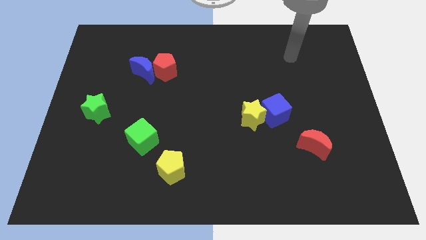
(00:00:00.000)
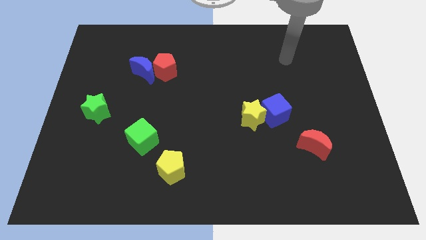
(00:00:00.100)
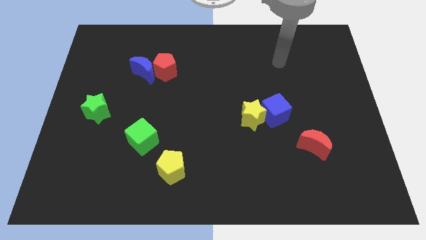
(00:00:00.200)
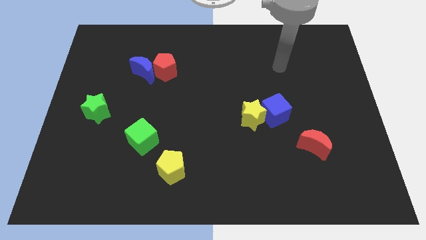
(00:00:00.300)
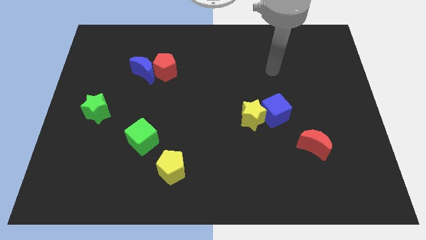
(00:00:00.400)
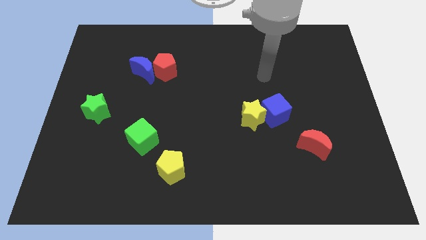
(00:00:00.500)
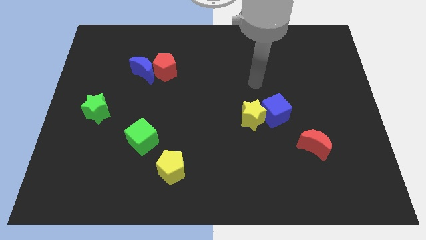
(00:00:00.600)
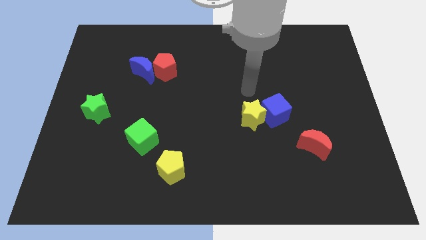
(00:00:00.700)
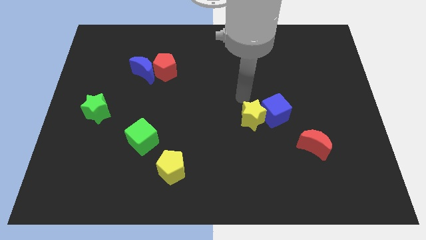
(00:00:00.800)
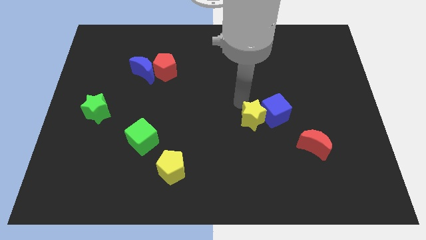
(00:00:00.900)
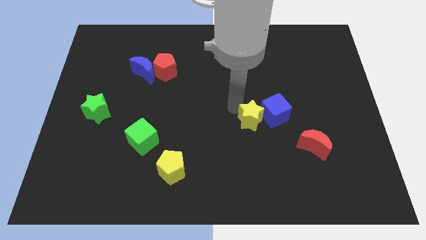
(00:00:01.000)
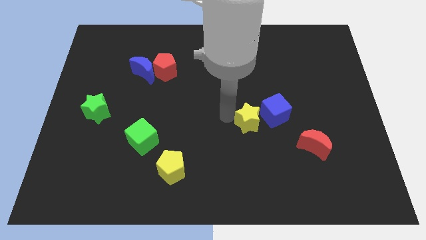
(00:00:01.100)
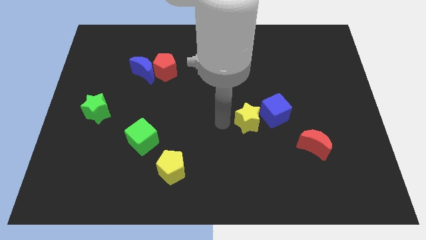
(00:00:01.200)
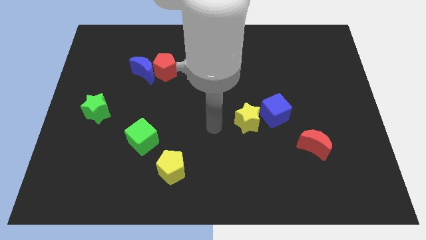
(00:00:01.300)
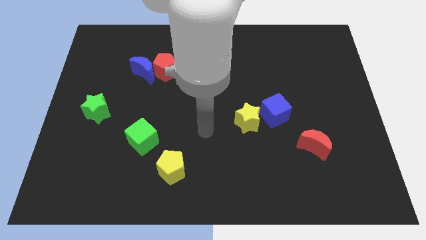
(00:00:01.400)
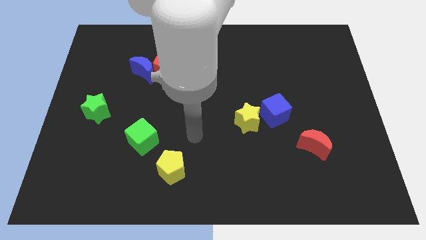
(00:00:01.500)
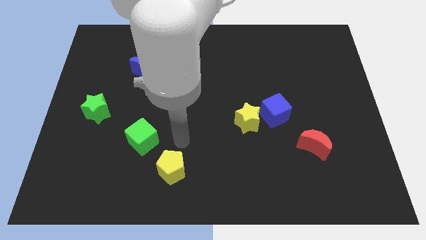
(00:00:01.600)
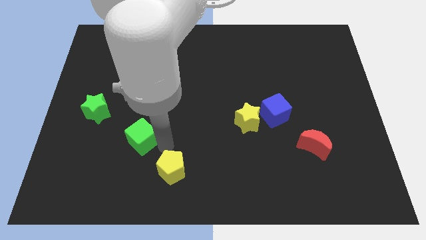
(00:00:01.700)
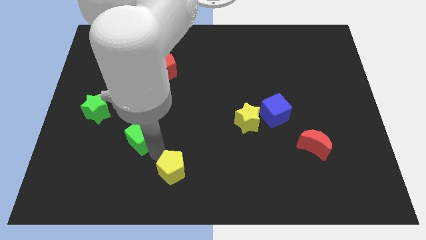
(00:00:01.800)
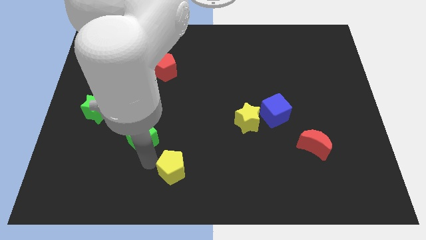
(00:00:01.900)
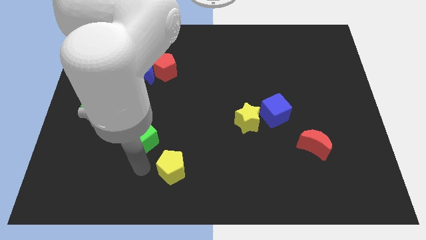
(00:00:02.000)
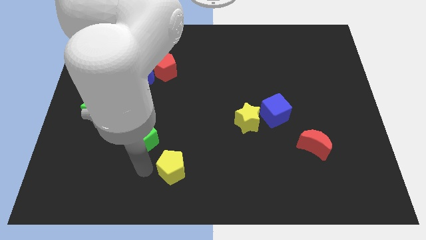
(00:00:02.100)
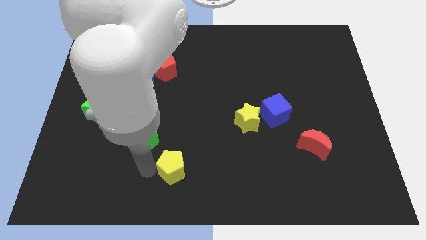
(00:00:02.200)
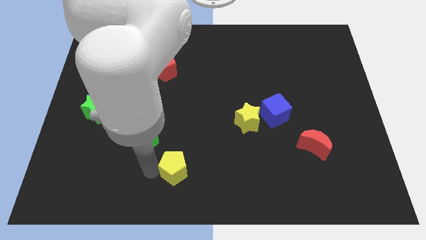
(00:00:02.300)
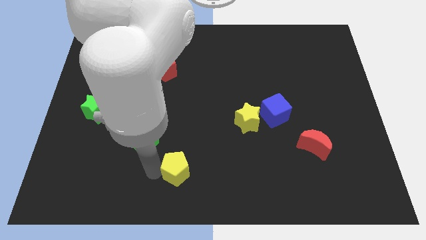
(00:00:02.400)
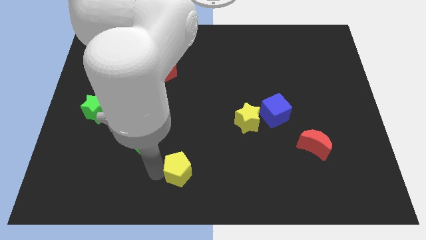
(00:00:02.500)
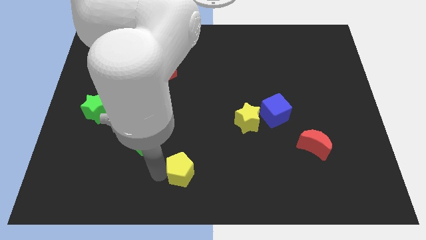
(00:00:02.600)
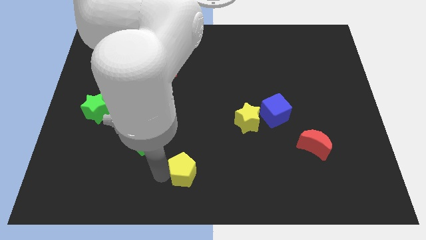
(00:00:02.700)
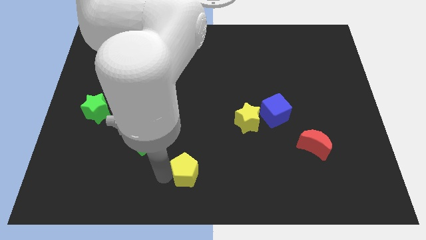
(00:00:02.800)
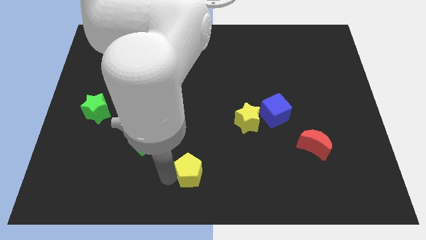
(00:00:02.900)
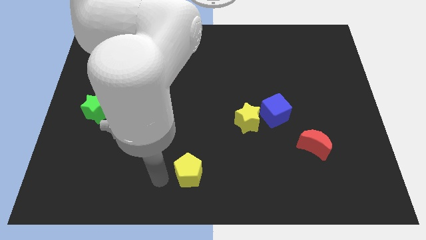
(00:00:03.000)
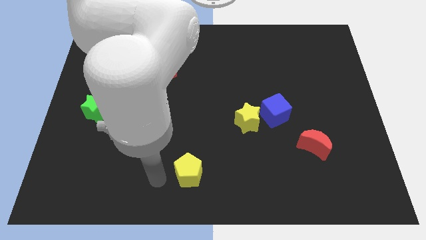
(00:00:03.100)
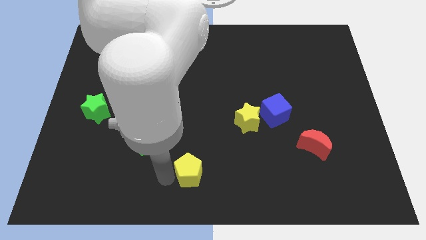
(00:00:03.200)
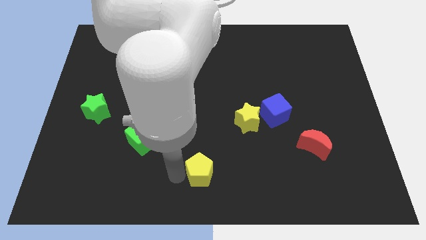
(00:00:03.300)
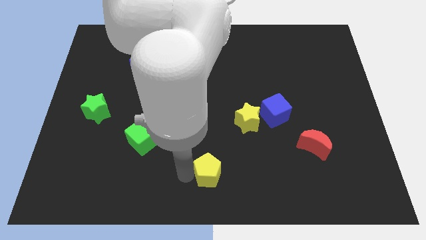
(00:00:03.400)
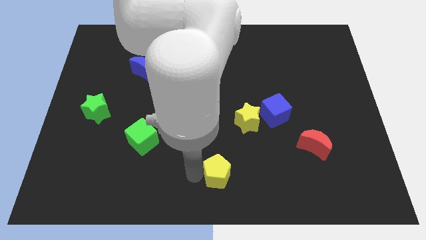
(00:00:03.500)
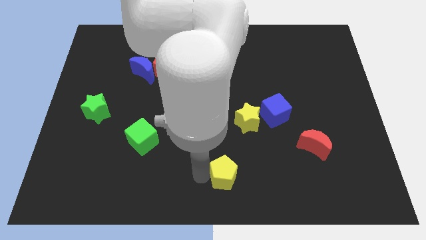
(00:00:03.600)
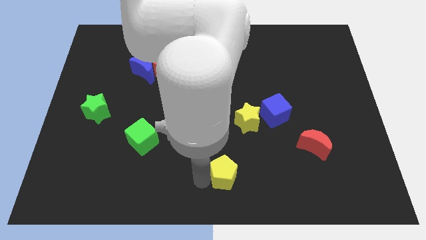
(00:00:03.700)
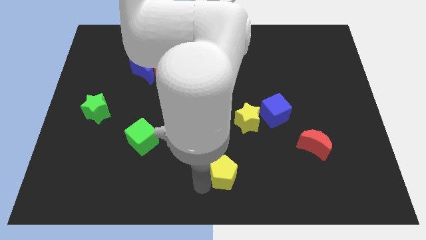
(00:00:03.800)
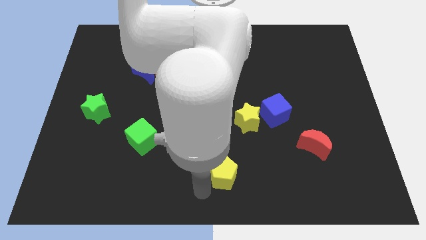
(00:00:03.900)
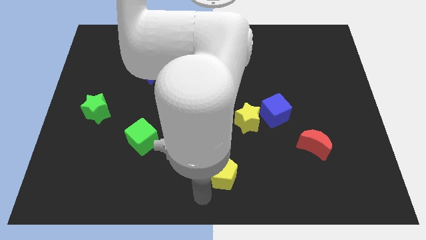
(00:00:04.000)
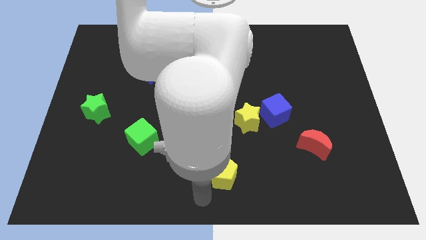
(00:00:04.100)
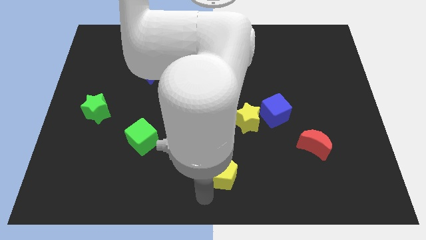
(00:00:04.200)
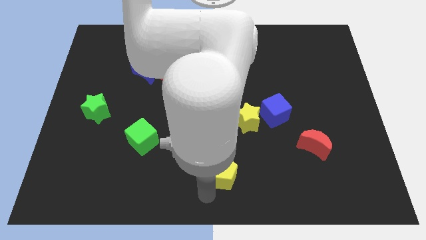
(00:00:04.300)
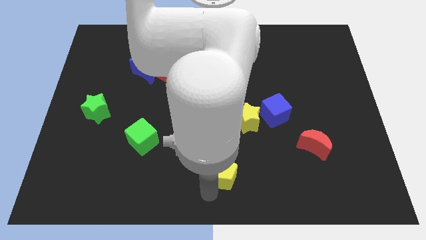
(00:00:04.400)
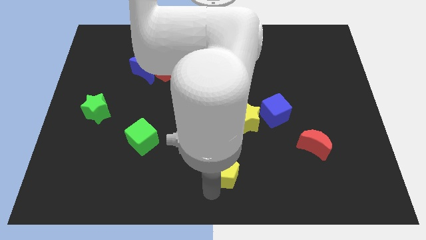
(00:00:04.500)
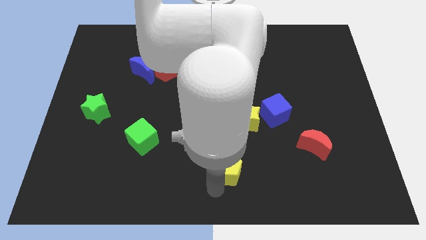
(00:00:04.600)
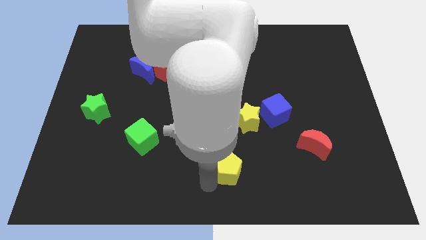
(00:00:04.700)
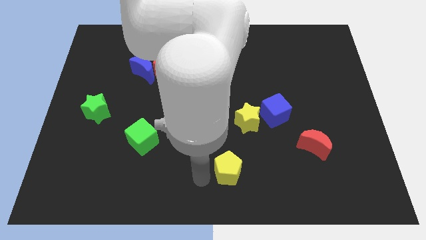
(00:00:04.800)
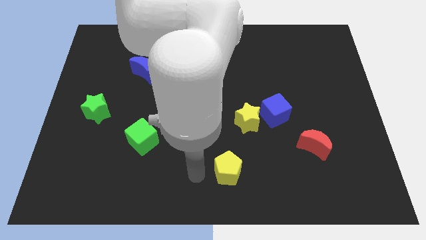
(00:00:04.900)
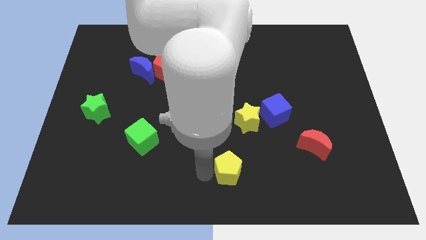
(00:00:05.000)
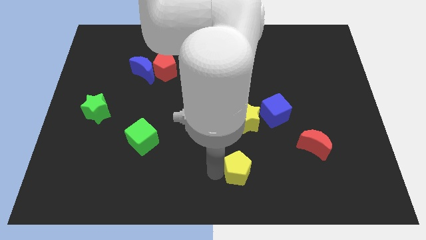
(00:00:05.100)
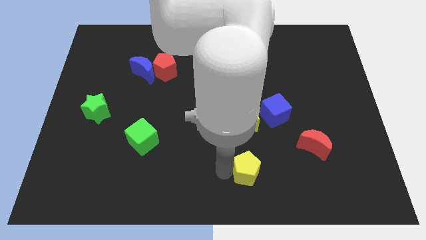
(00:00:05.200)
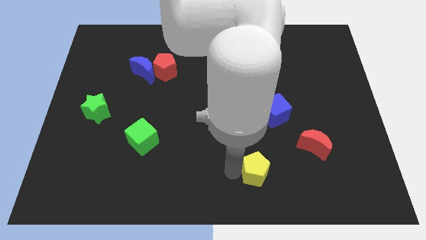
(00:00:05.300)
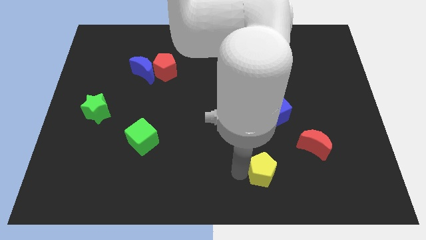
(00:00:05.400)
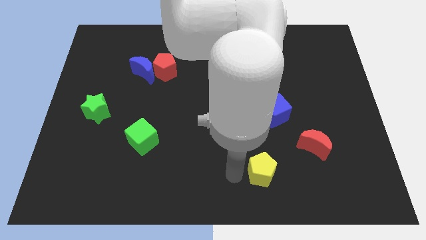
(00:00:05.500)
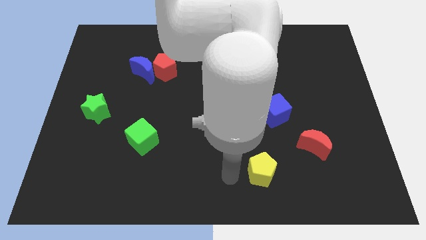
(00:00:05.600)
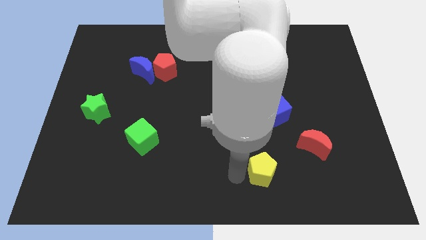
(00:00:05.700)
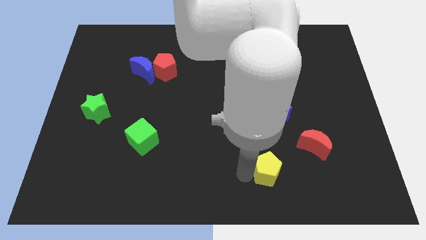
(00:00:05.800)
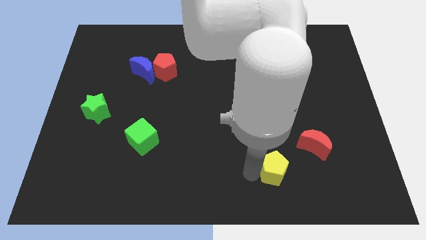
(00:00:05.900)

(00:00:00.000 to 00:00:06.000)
push the yellow pentagon to the right

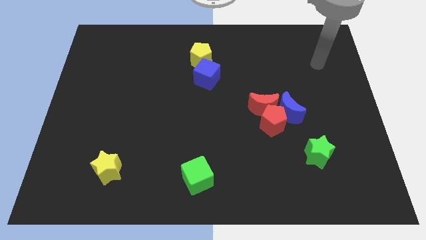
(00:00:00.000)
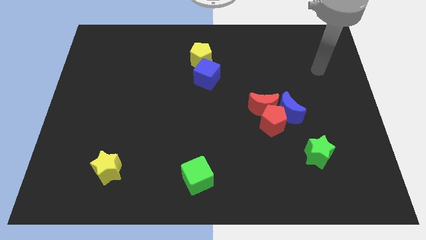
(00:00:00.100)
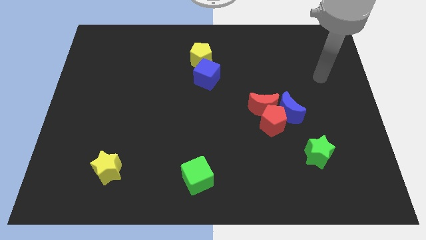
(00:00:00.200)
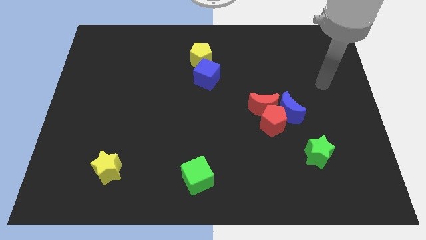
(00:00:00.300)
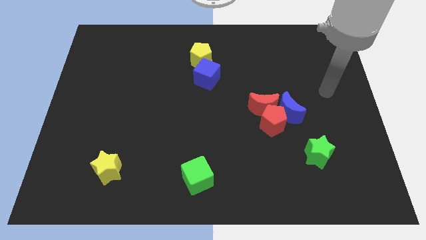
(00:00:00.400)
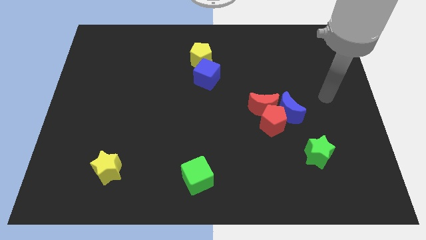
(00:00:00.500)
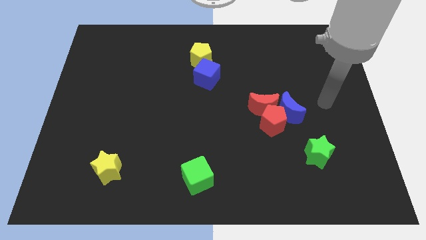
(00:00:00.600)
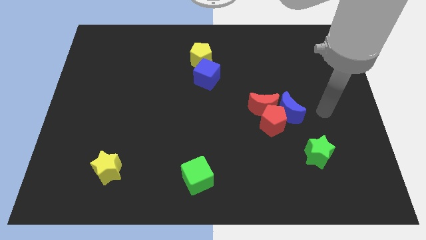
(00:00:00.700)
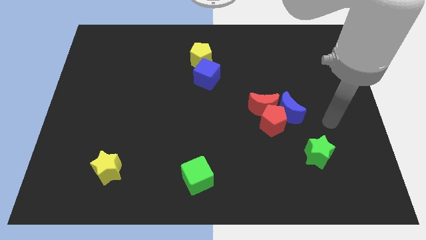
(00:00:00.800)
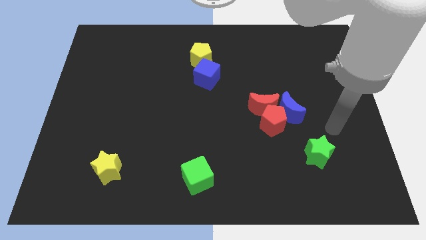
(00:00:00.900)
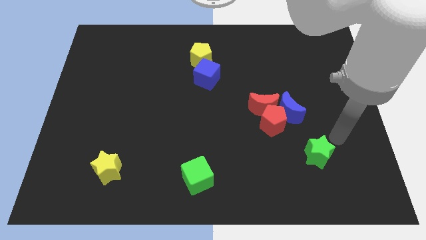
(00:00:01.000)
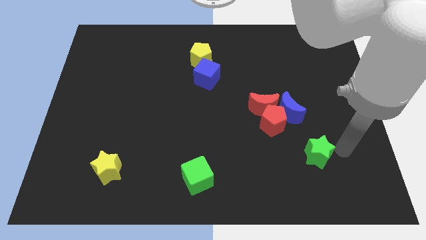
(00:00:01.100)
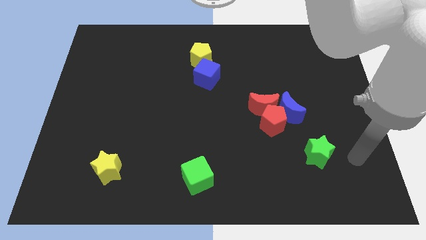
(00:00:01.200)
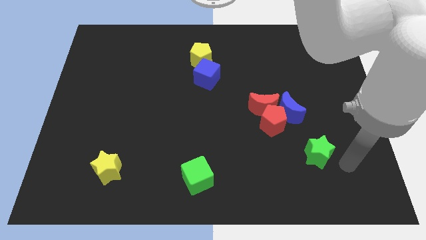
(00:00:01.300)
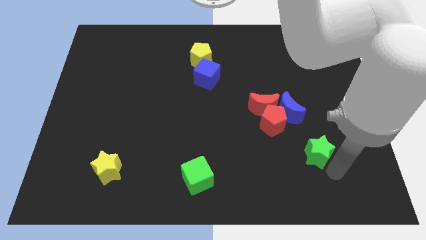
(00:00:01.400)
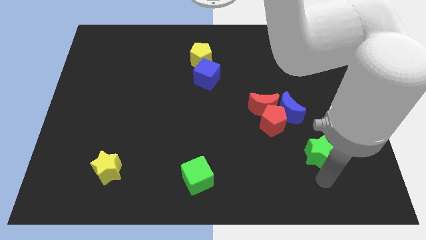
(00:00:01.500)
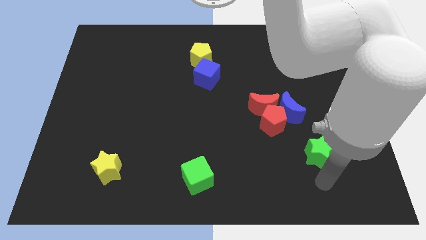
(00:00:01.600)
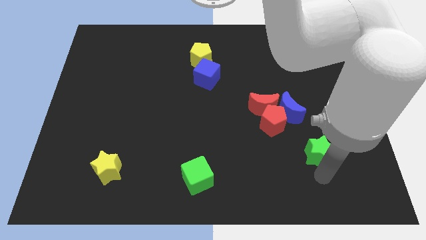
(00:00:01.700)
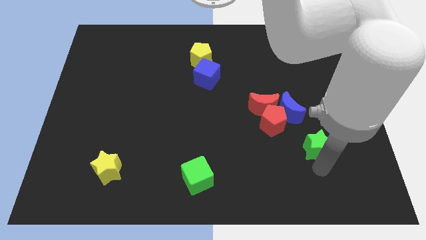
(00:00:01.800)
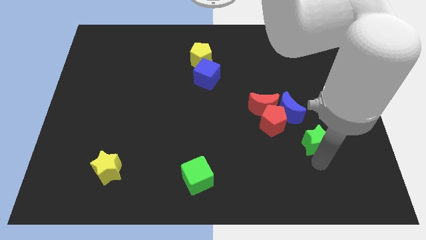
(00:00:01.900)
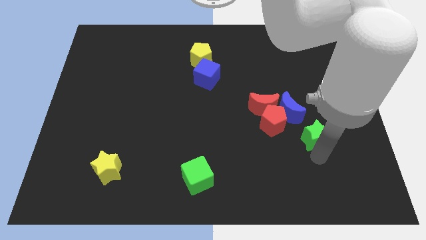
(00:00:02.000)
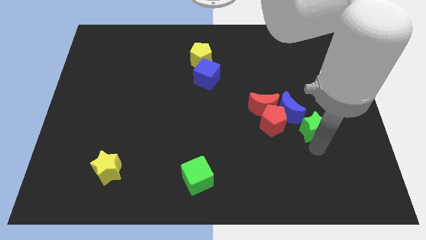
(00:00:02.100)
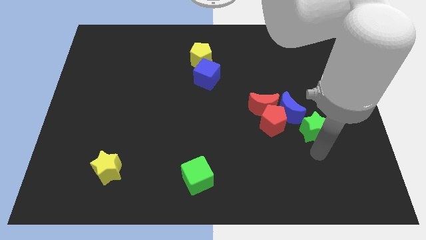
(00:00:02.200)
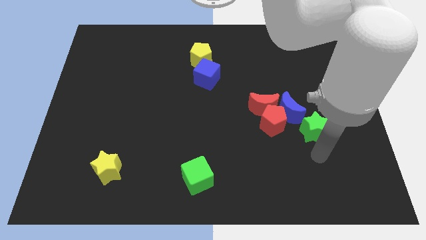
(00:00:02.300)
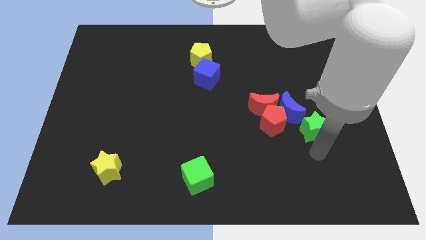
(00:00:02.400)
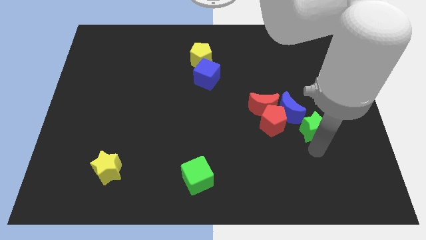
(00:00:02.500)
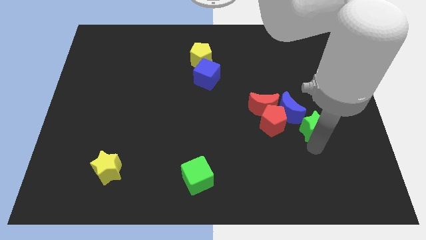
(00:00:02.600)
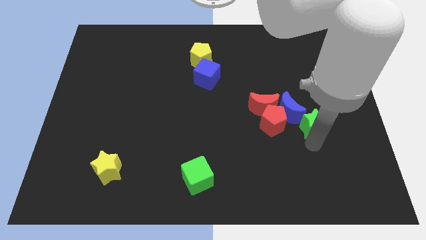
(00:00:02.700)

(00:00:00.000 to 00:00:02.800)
slightly slide the green star up
